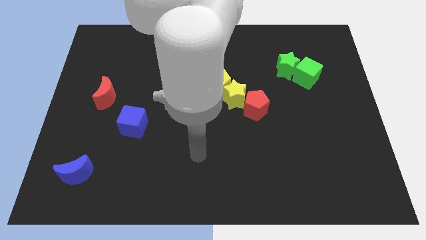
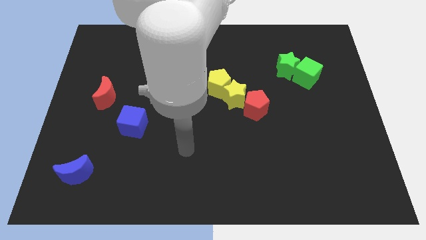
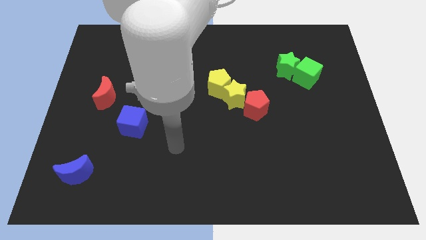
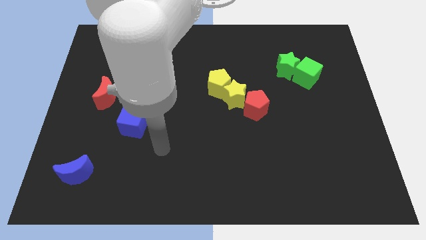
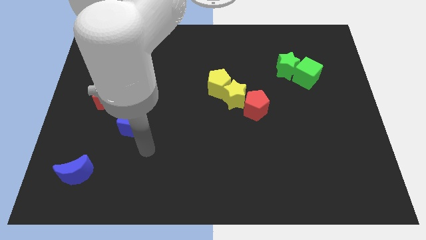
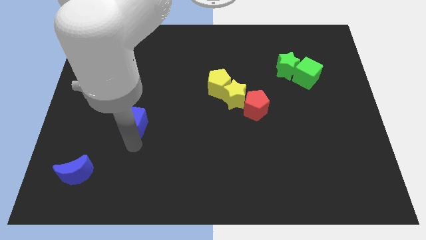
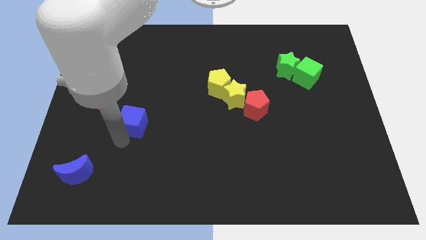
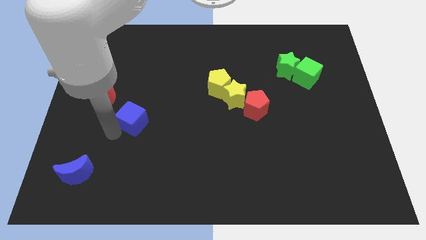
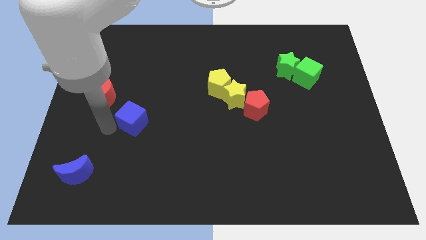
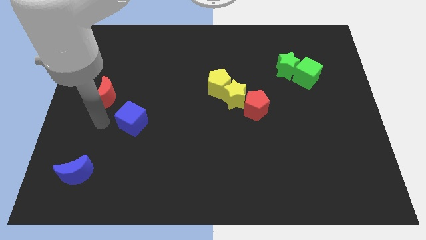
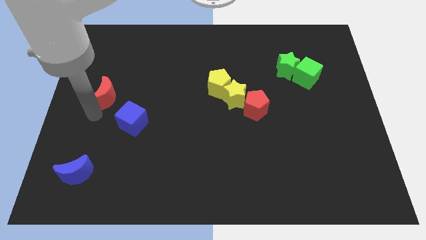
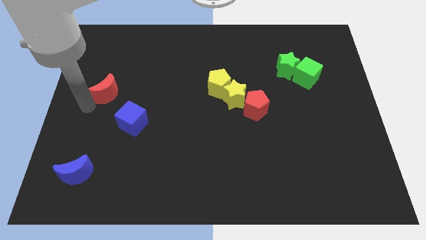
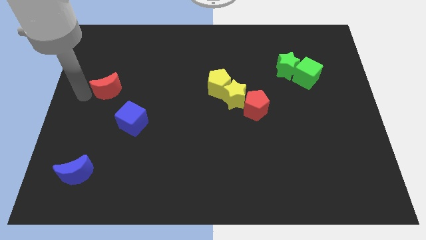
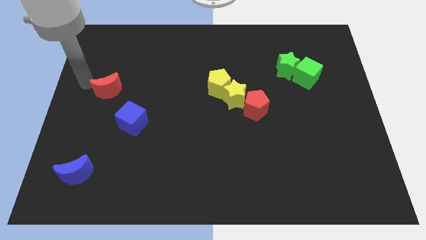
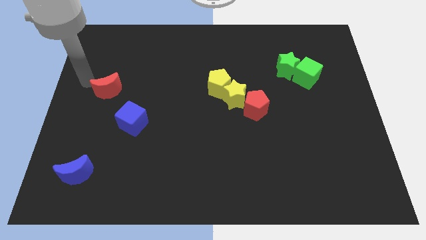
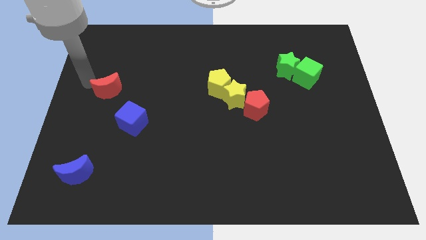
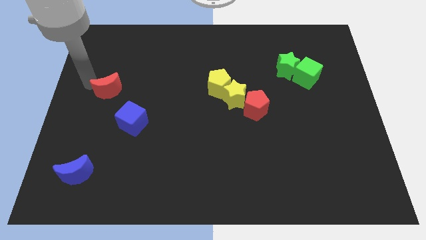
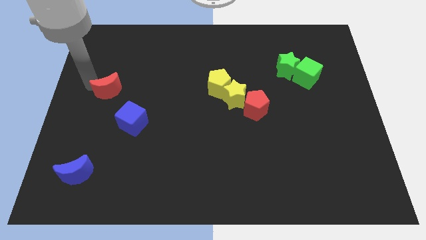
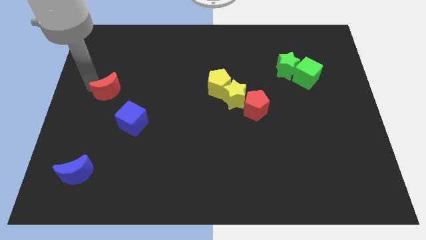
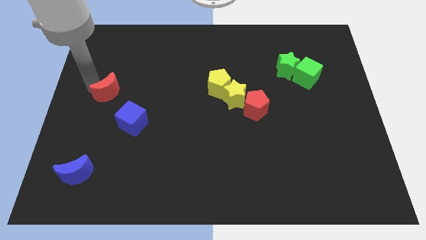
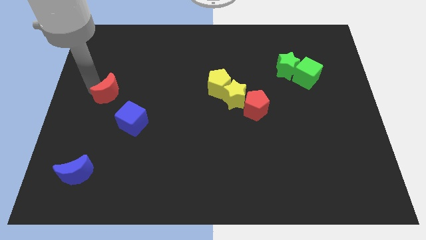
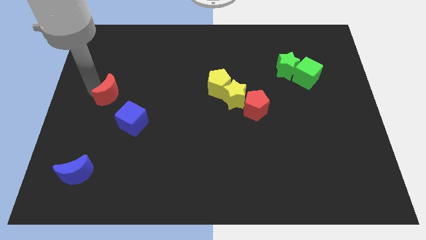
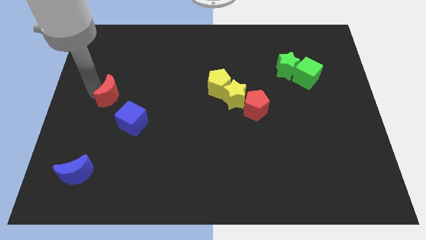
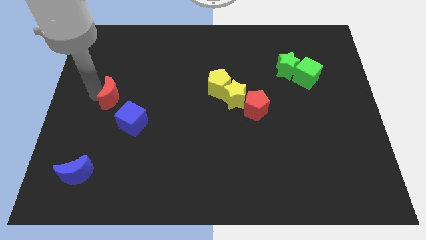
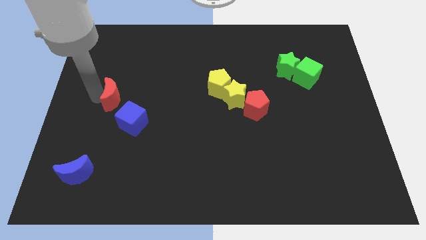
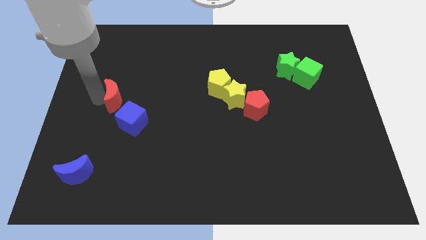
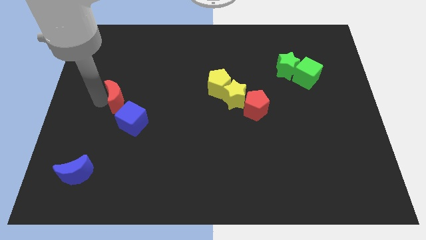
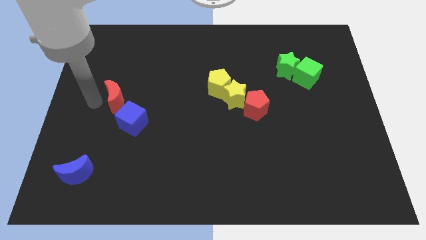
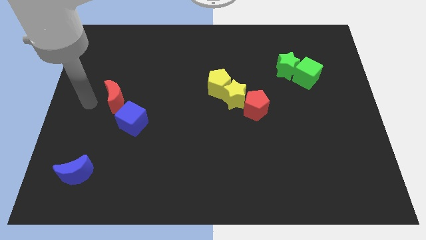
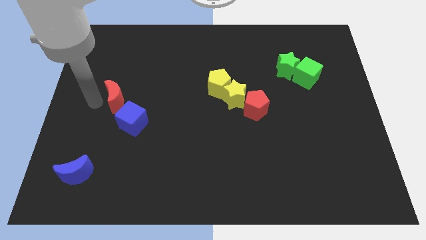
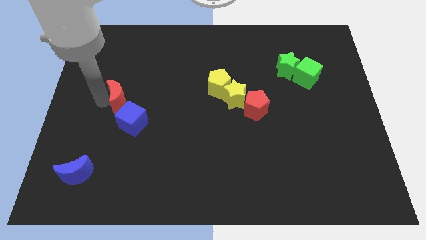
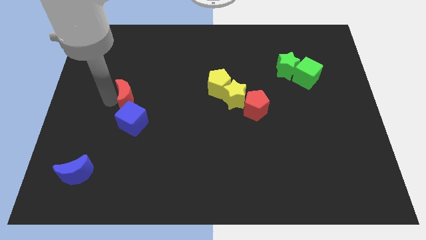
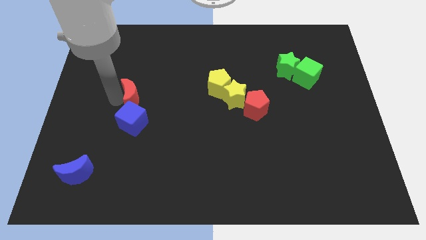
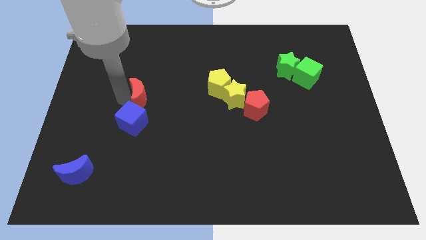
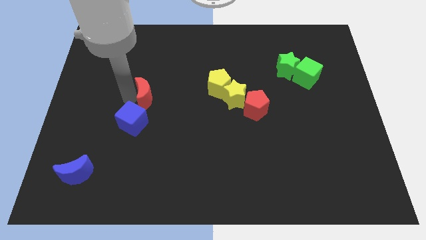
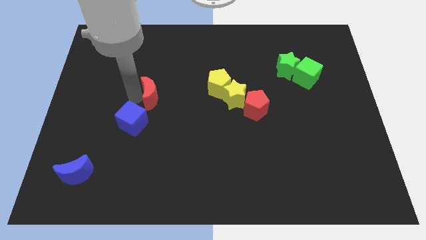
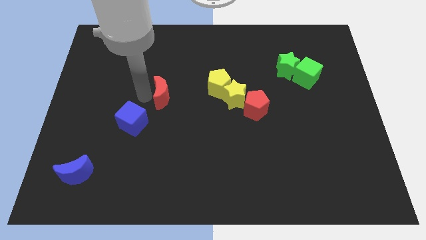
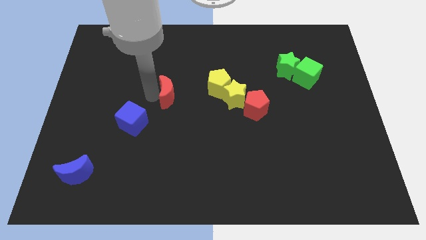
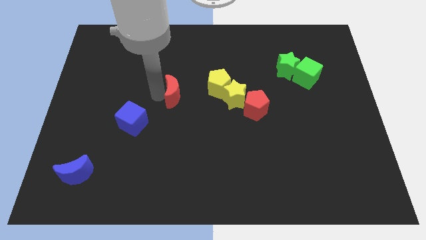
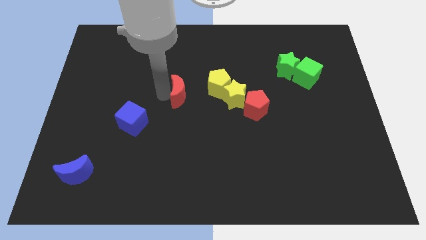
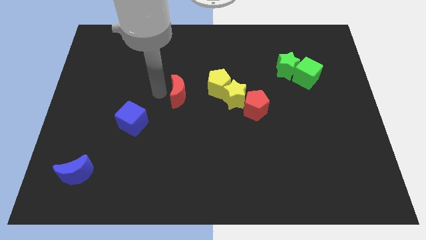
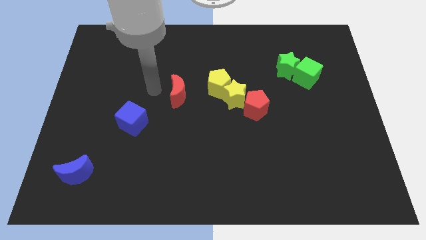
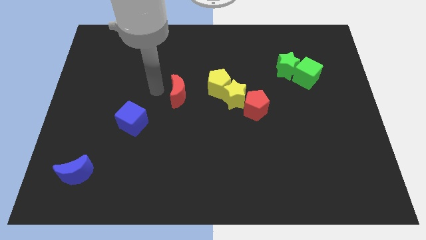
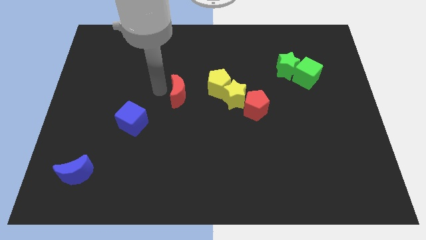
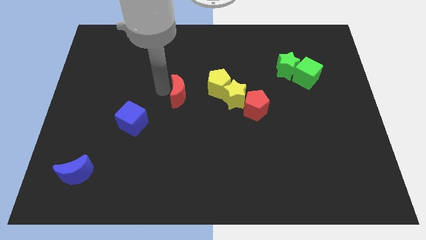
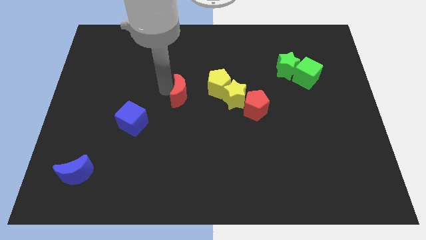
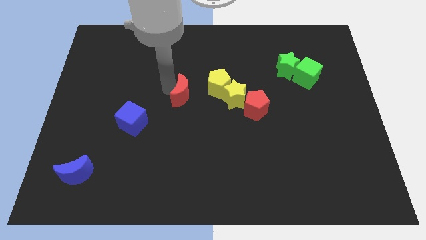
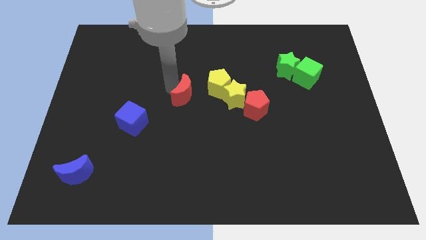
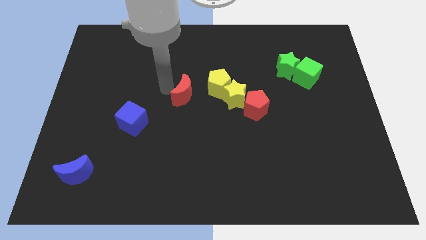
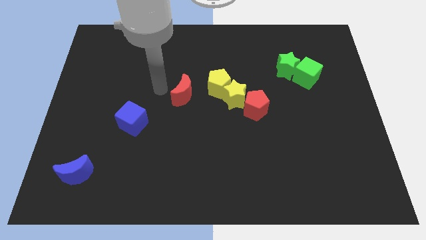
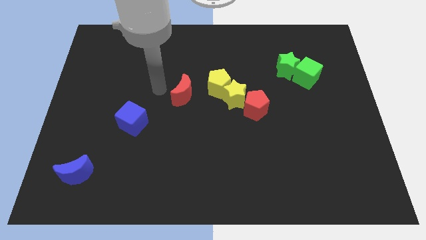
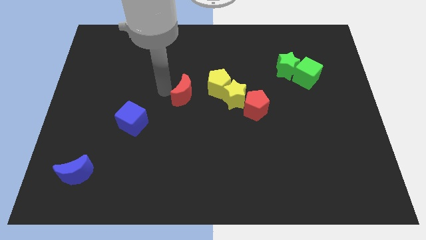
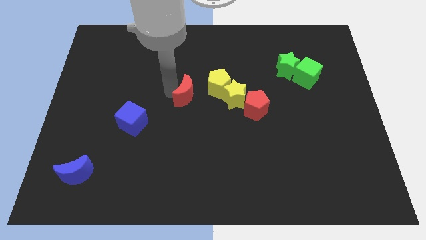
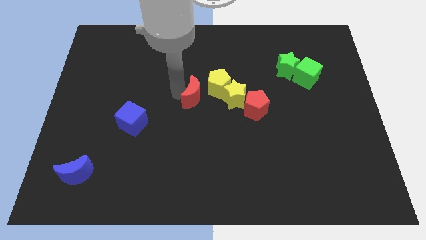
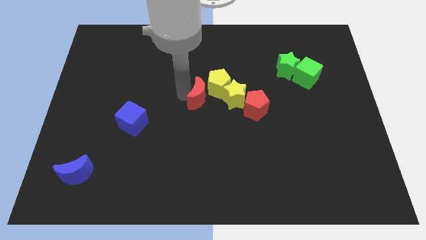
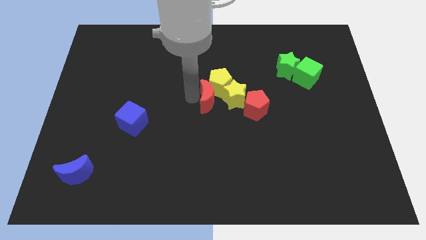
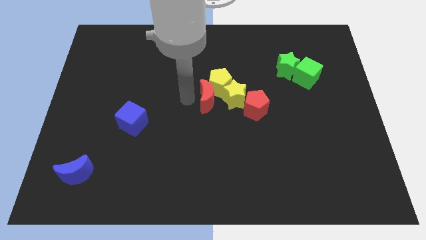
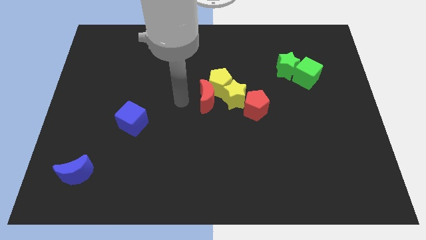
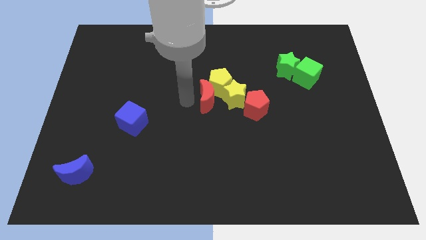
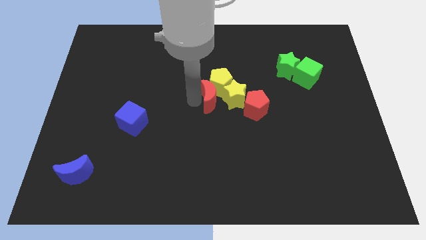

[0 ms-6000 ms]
put the red moon to the yellow star

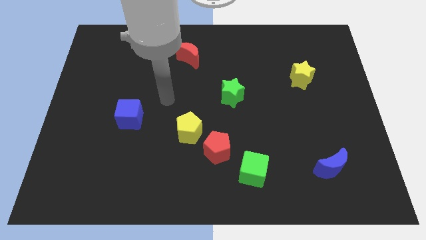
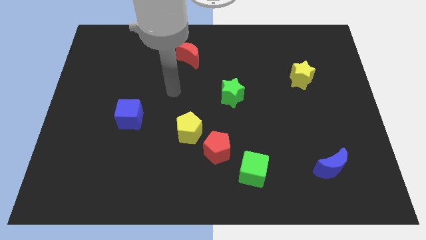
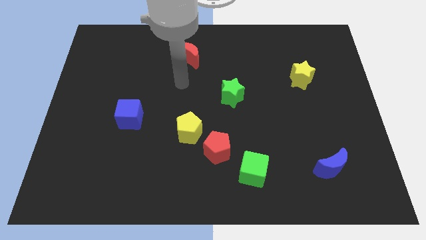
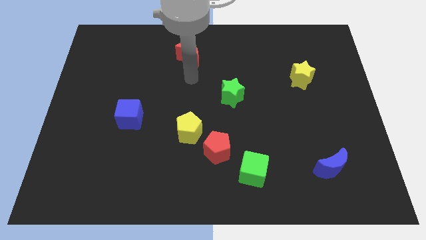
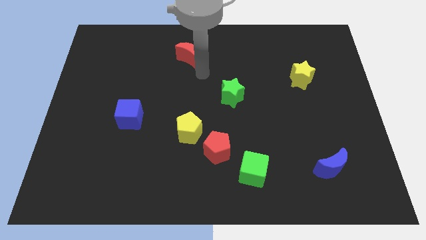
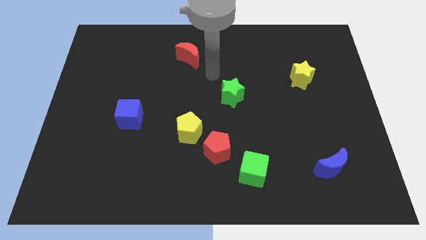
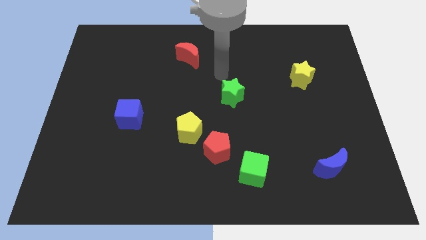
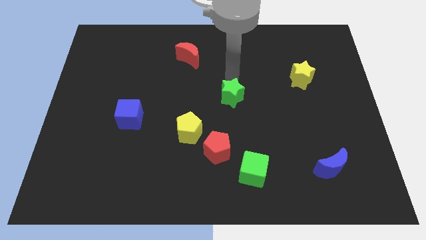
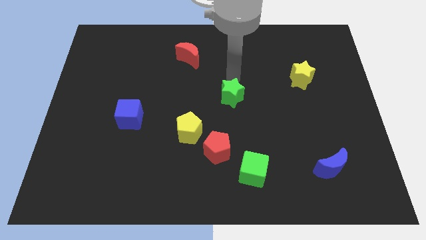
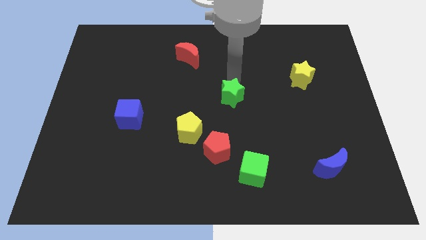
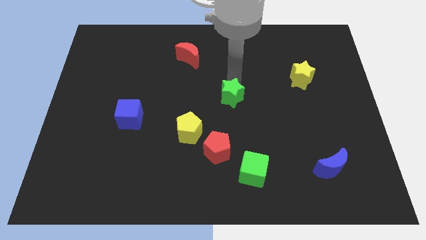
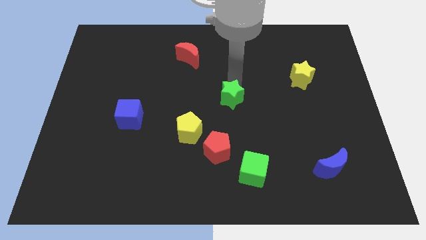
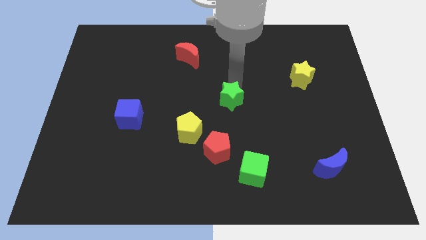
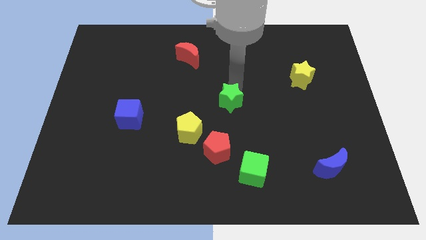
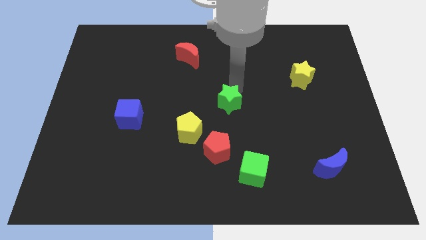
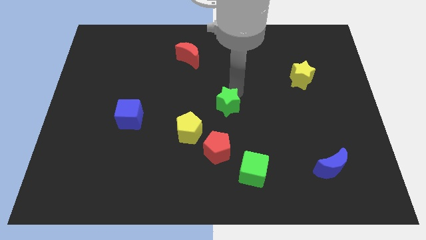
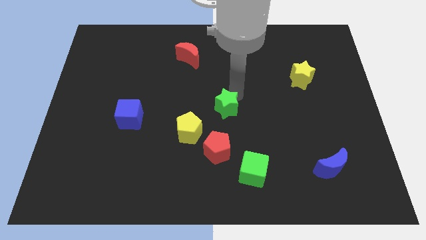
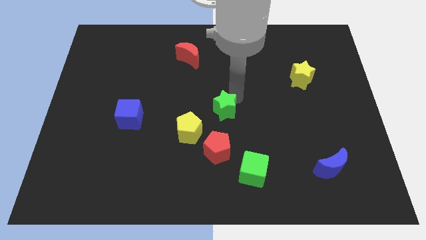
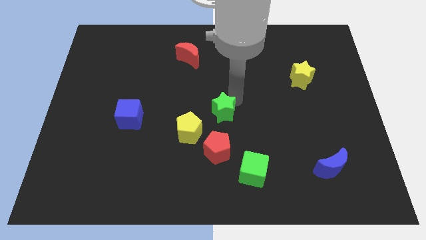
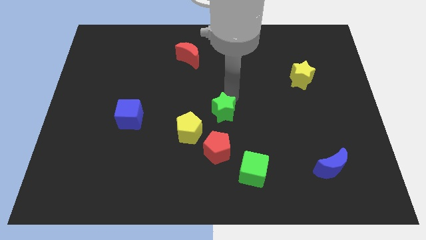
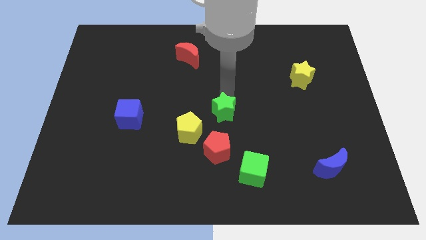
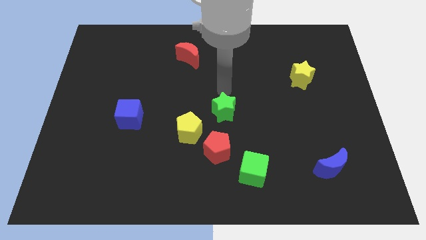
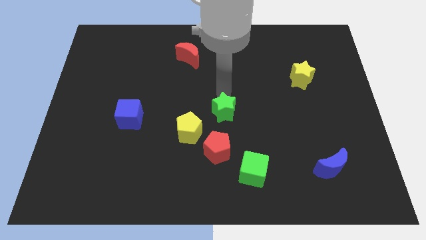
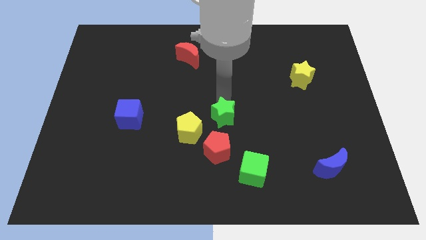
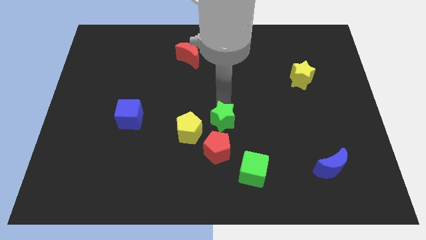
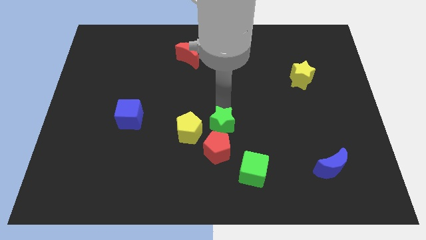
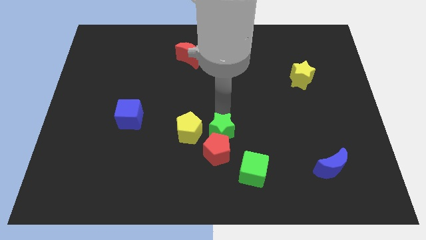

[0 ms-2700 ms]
move the green star close to the red pentagon
